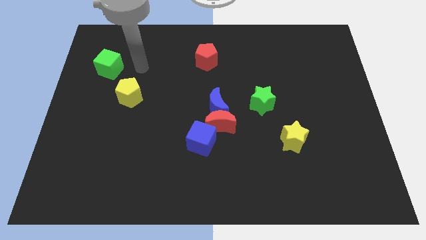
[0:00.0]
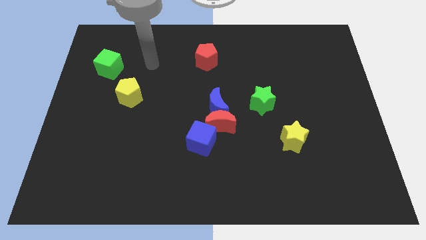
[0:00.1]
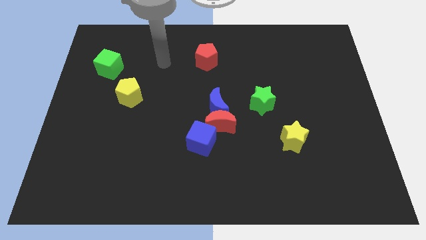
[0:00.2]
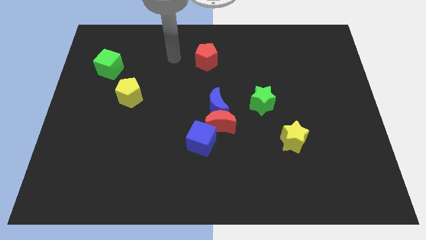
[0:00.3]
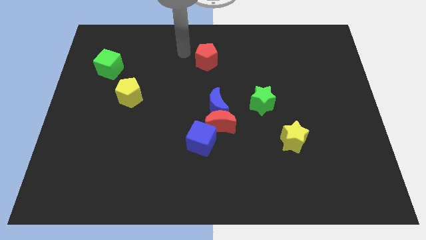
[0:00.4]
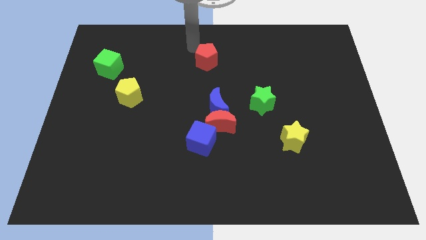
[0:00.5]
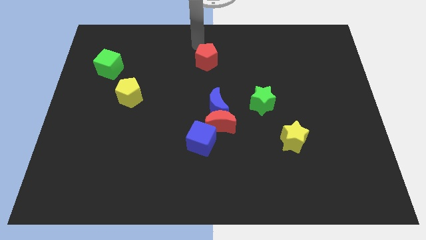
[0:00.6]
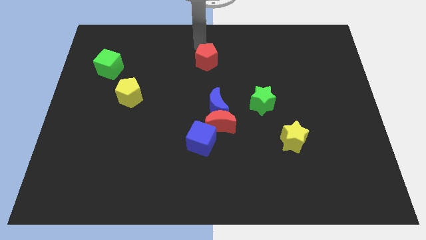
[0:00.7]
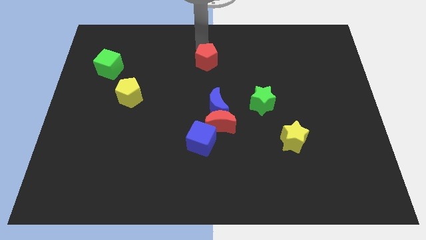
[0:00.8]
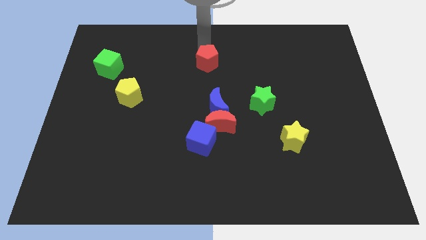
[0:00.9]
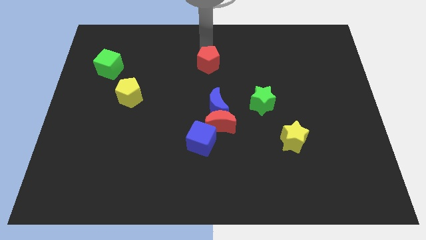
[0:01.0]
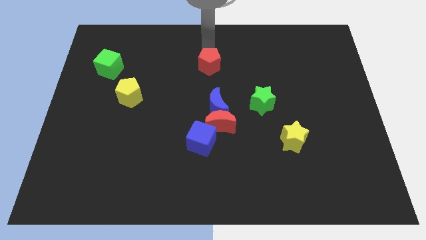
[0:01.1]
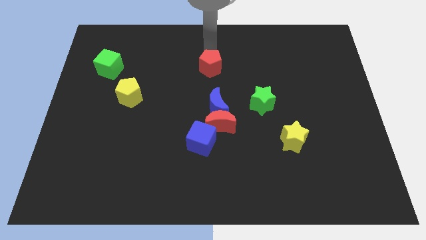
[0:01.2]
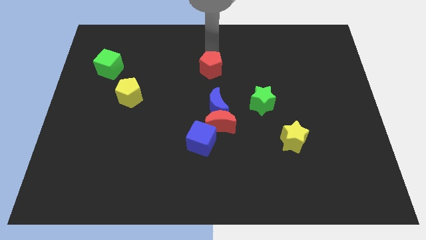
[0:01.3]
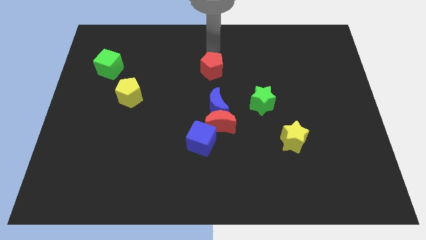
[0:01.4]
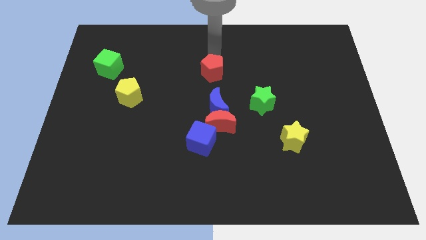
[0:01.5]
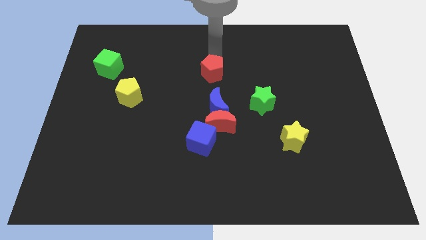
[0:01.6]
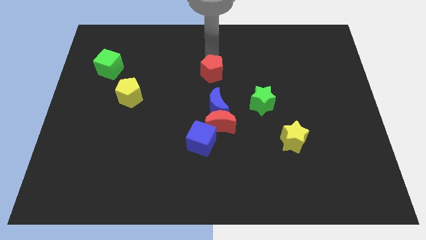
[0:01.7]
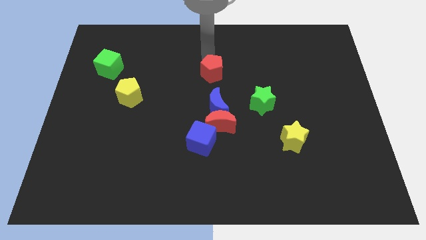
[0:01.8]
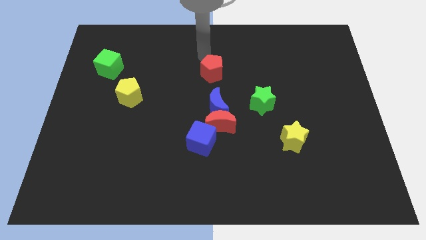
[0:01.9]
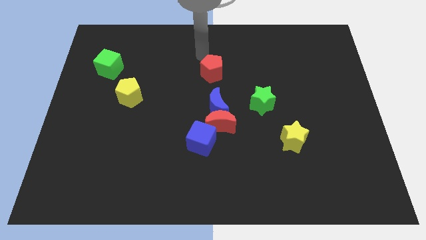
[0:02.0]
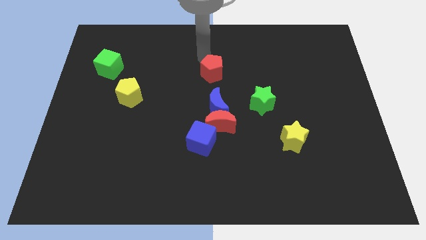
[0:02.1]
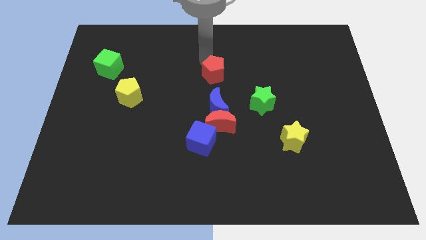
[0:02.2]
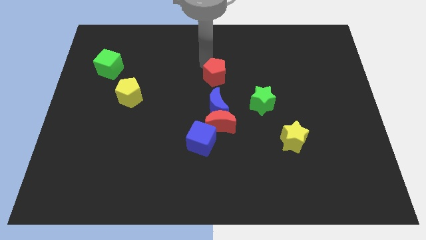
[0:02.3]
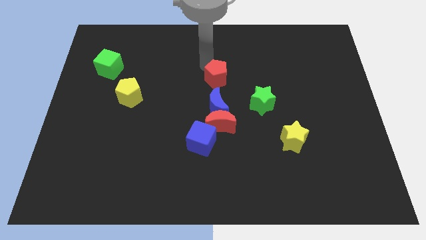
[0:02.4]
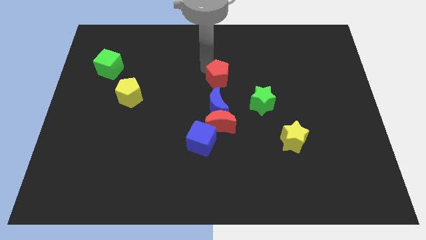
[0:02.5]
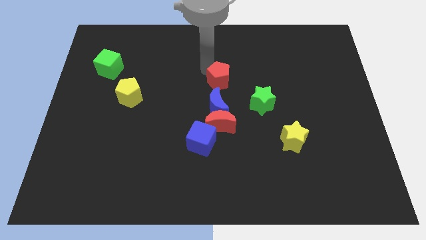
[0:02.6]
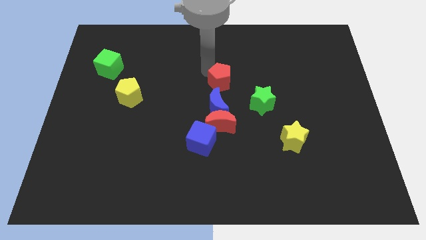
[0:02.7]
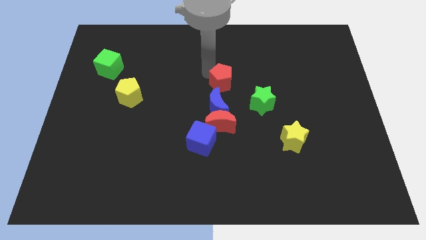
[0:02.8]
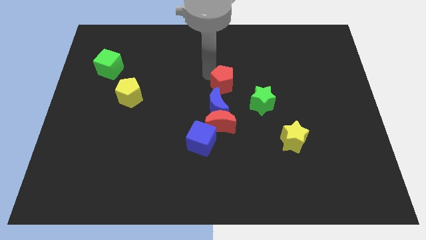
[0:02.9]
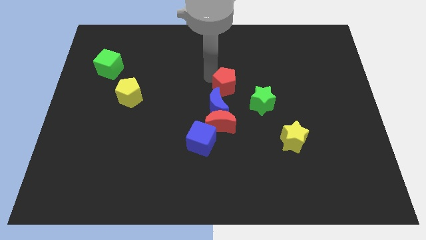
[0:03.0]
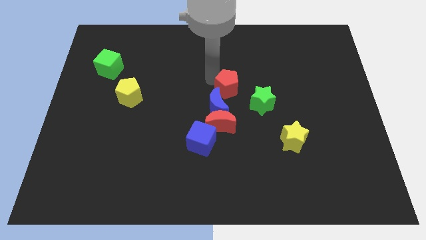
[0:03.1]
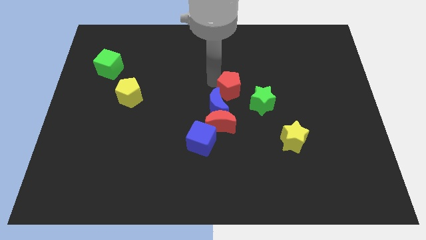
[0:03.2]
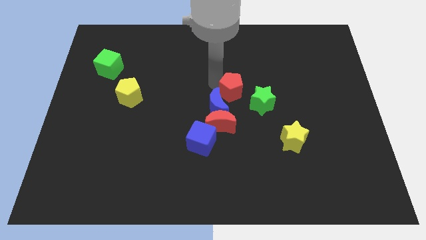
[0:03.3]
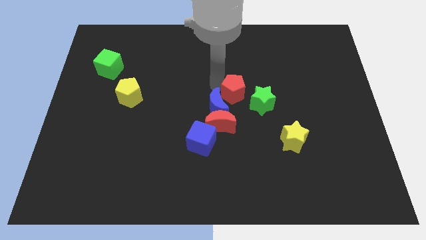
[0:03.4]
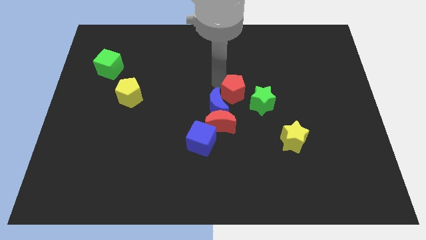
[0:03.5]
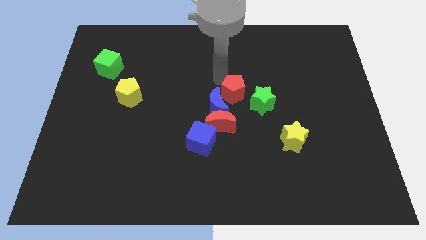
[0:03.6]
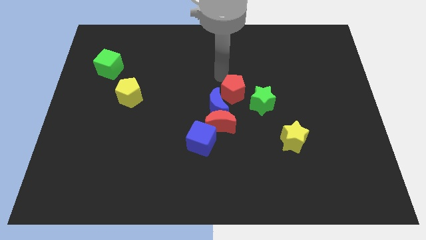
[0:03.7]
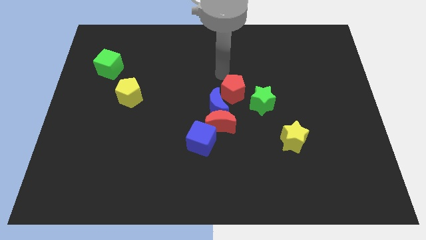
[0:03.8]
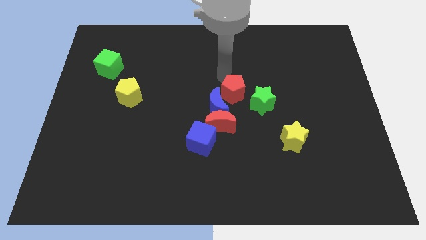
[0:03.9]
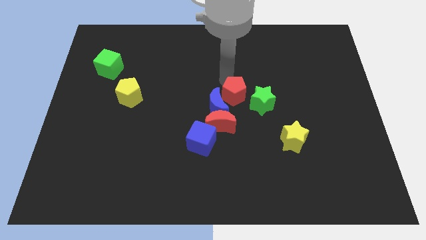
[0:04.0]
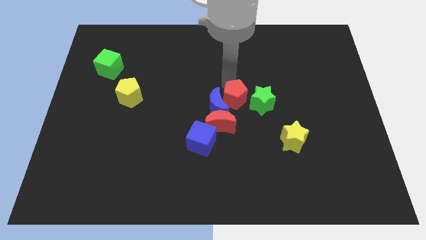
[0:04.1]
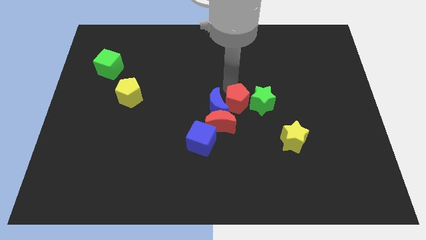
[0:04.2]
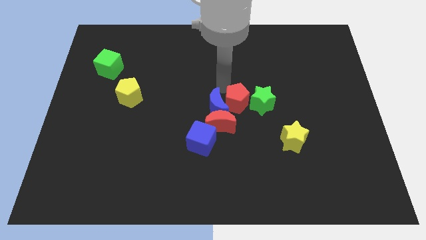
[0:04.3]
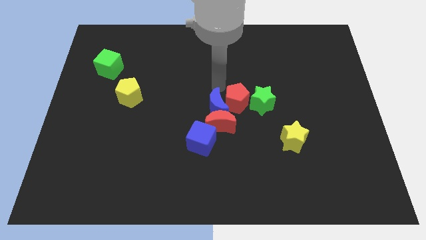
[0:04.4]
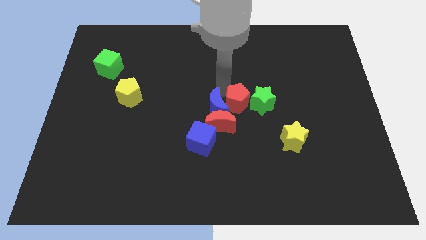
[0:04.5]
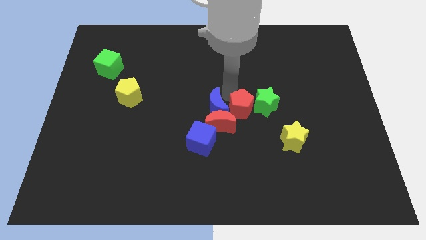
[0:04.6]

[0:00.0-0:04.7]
push the red pentagon right of the red moon

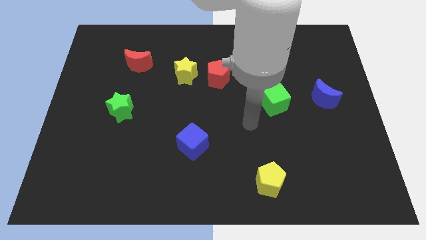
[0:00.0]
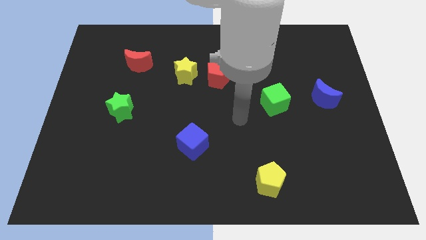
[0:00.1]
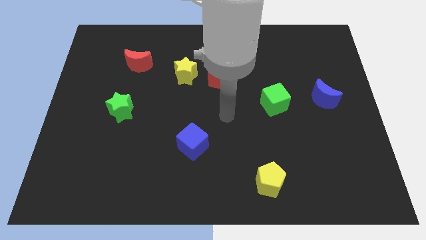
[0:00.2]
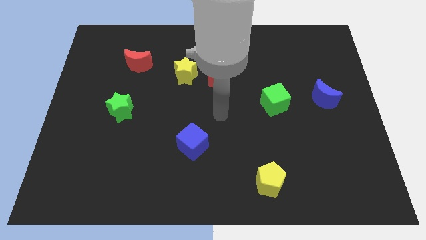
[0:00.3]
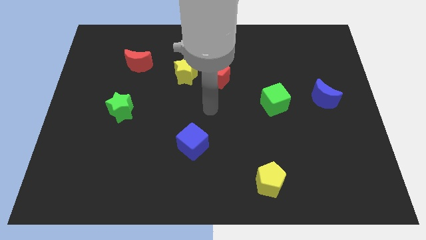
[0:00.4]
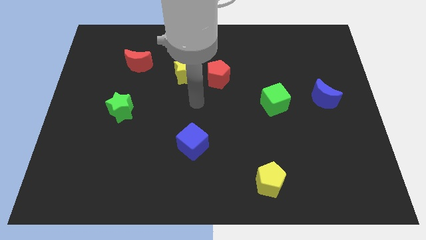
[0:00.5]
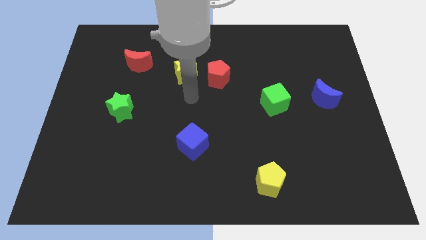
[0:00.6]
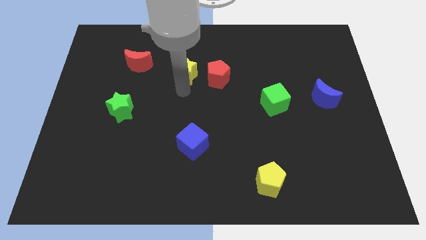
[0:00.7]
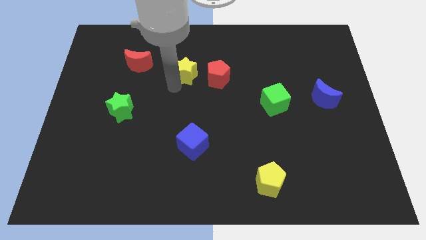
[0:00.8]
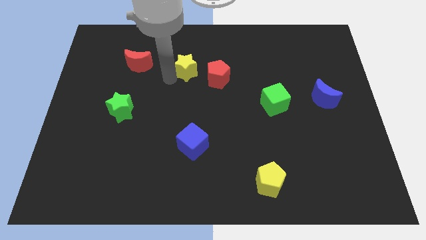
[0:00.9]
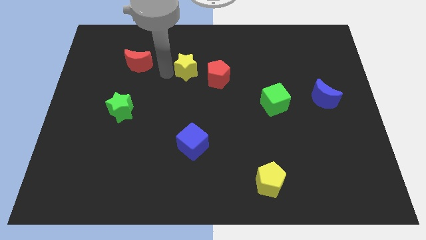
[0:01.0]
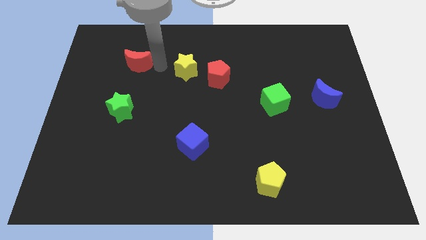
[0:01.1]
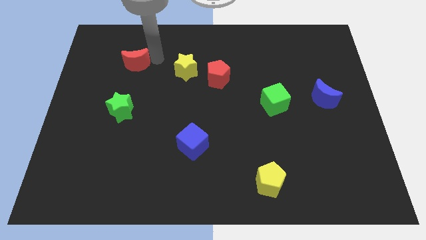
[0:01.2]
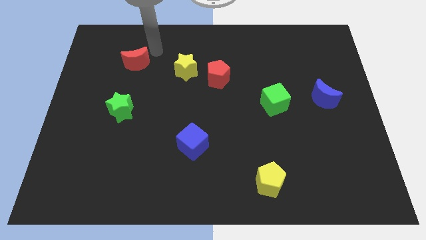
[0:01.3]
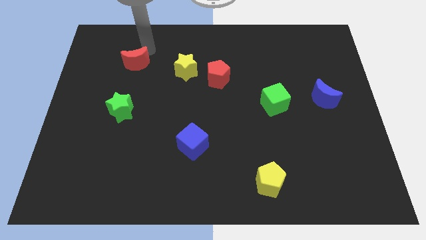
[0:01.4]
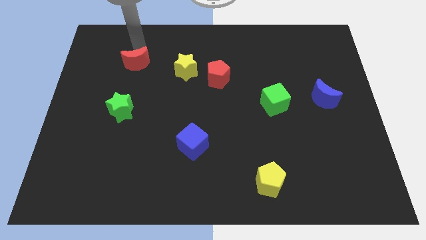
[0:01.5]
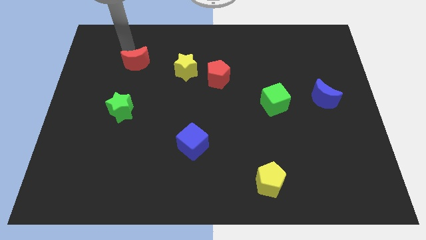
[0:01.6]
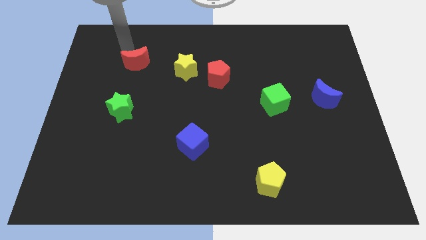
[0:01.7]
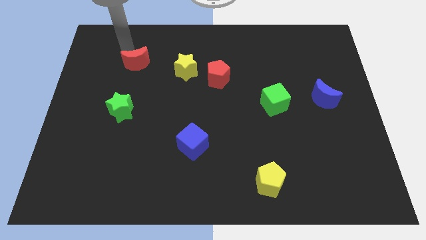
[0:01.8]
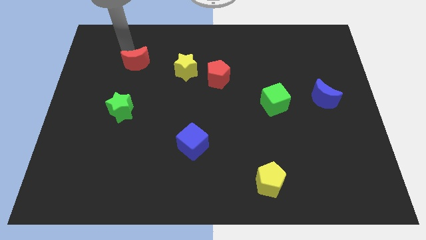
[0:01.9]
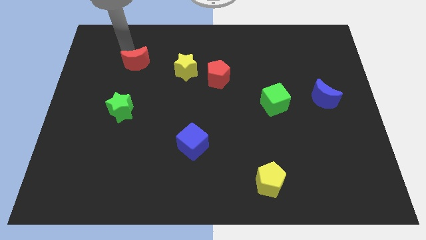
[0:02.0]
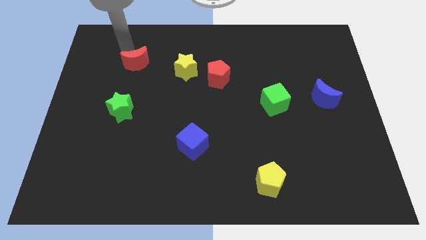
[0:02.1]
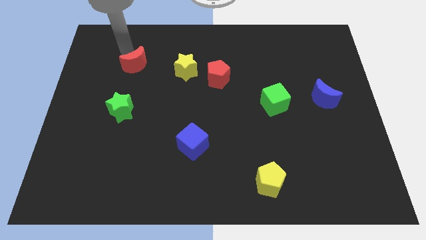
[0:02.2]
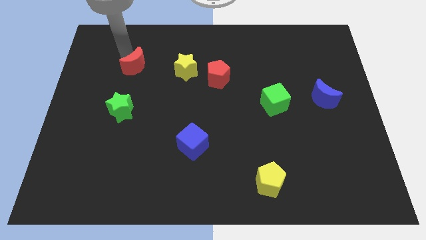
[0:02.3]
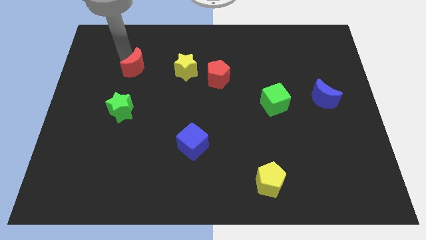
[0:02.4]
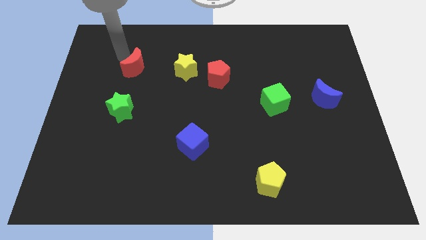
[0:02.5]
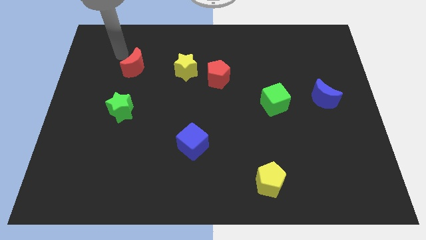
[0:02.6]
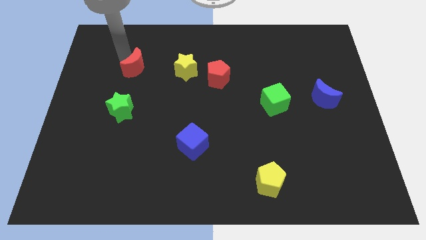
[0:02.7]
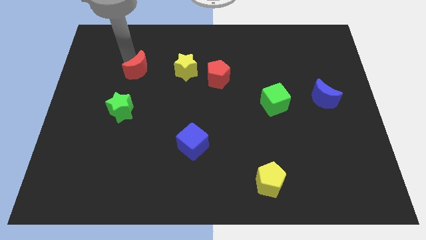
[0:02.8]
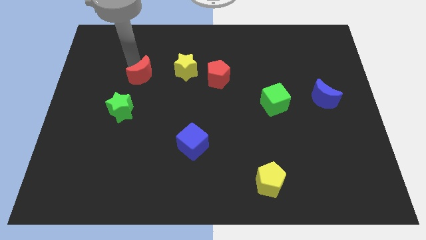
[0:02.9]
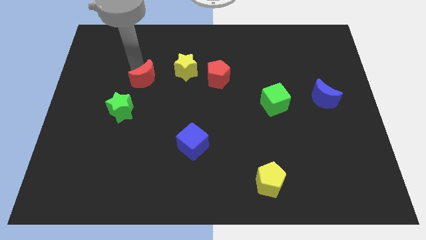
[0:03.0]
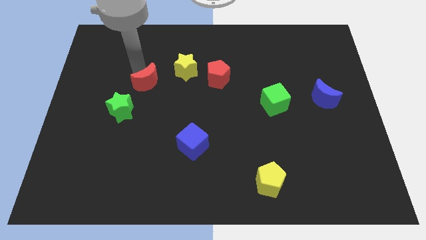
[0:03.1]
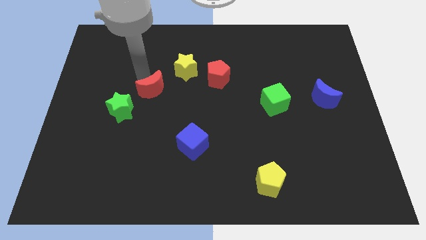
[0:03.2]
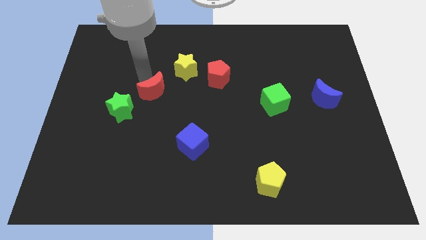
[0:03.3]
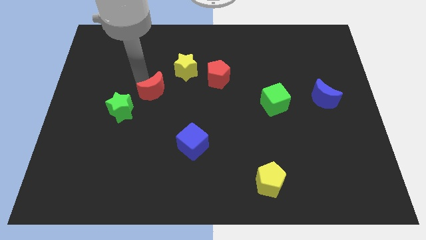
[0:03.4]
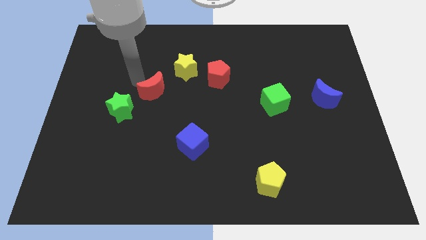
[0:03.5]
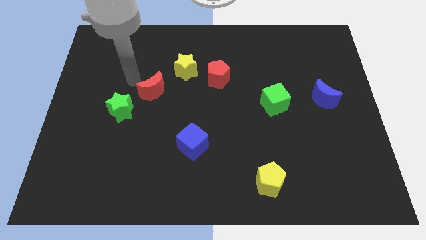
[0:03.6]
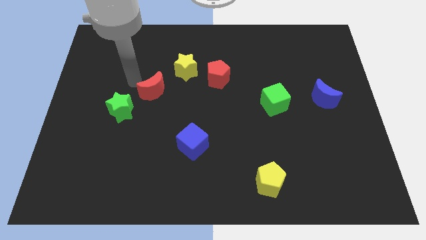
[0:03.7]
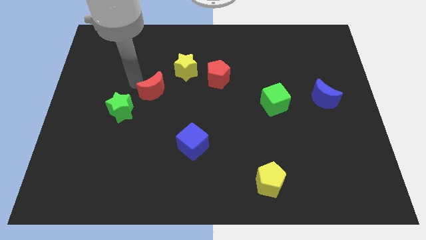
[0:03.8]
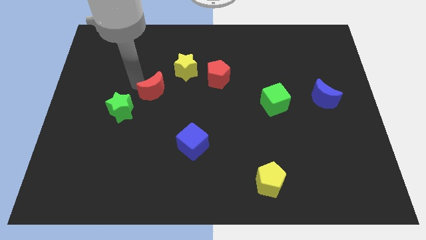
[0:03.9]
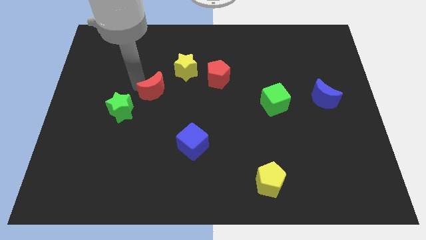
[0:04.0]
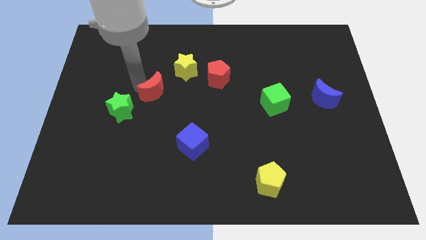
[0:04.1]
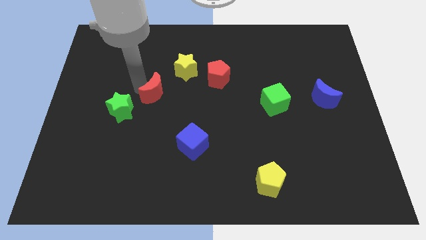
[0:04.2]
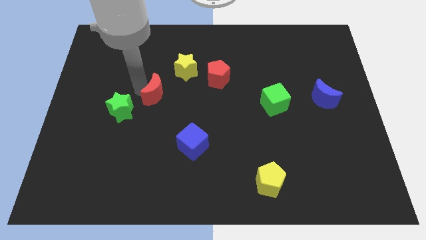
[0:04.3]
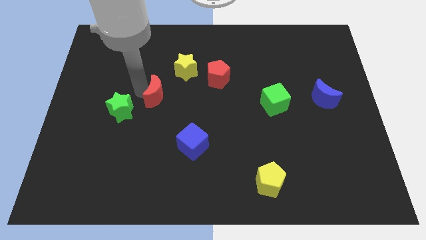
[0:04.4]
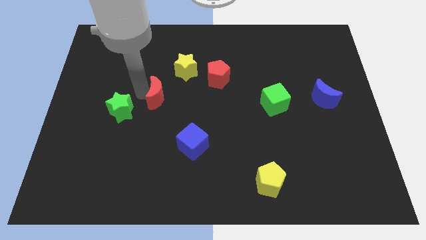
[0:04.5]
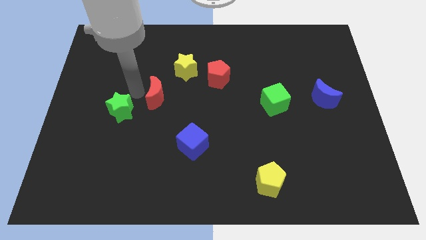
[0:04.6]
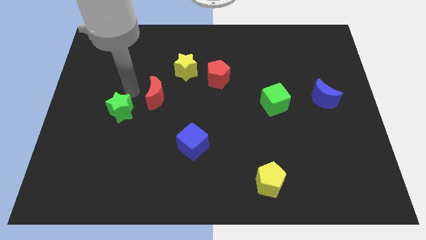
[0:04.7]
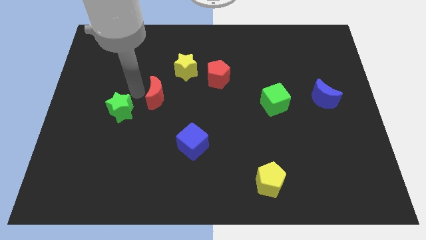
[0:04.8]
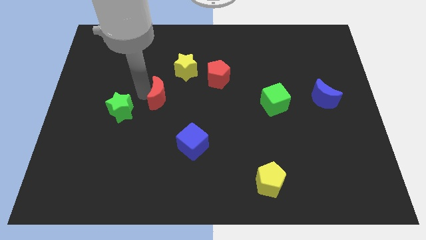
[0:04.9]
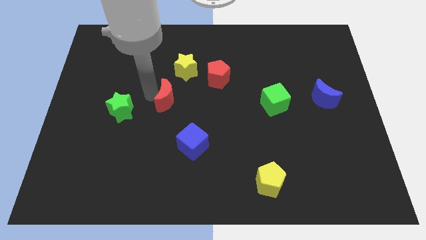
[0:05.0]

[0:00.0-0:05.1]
push the red moon to the bottom of the yellow star
